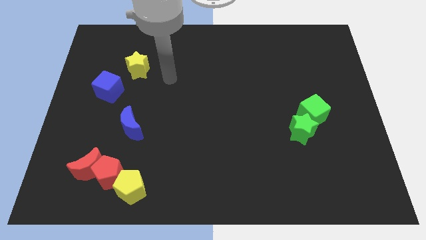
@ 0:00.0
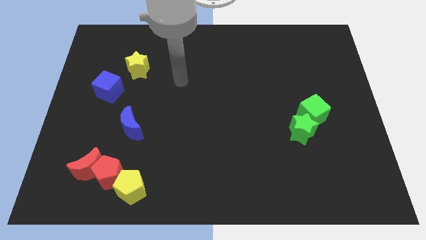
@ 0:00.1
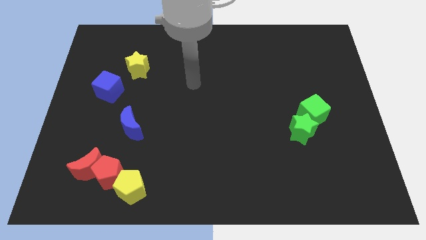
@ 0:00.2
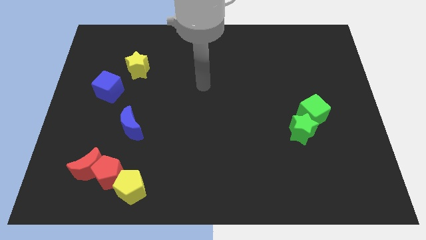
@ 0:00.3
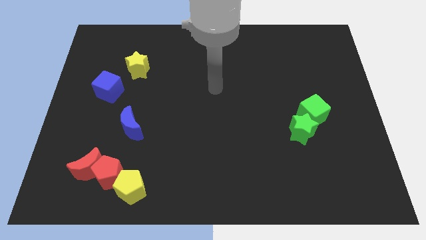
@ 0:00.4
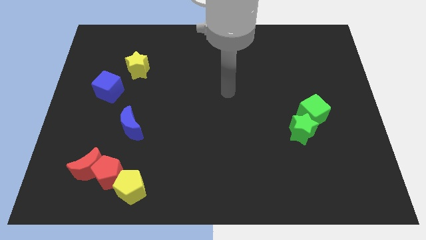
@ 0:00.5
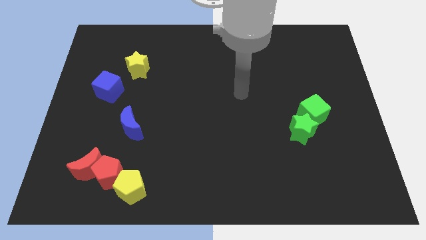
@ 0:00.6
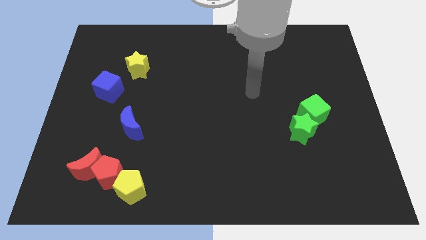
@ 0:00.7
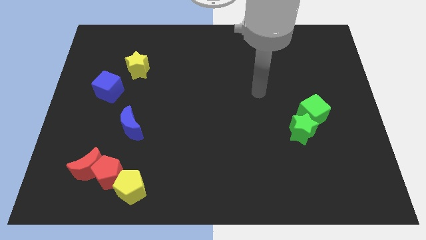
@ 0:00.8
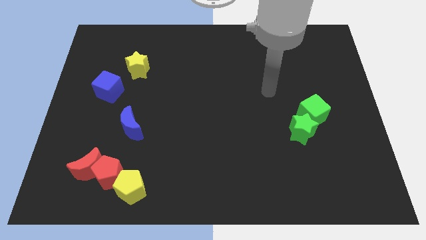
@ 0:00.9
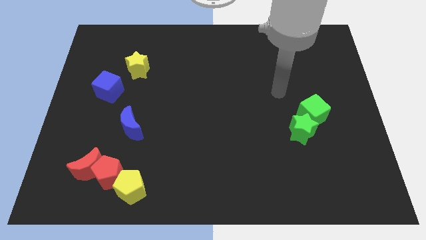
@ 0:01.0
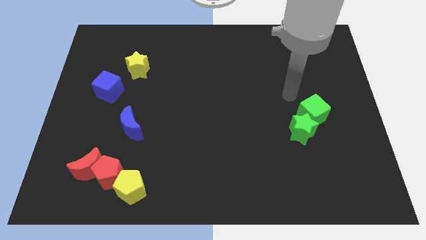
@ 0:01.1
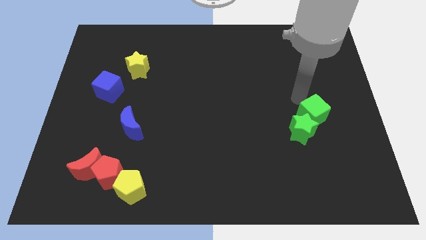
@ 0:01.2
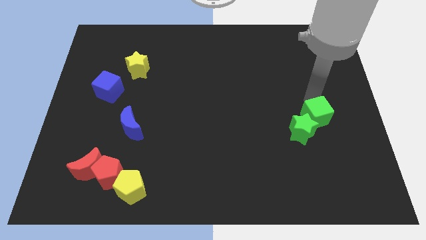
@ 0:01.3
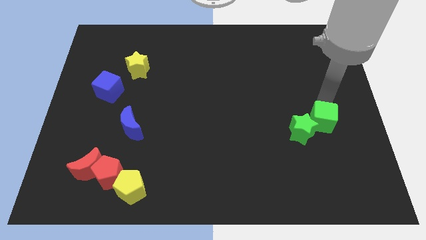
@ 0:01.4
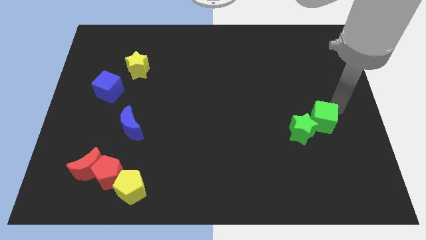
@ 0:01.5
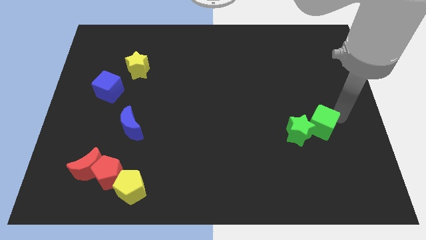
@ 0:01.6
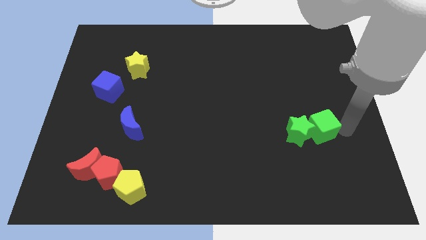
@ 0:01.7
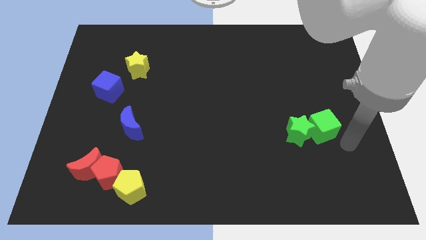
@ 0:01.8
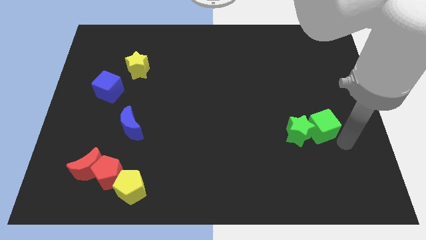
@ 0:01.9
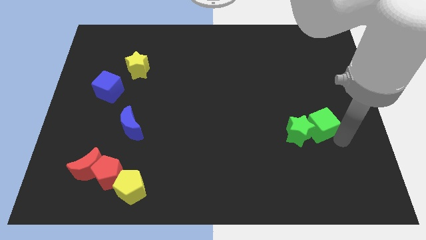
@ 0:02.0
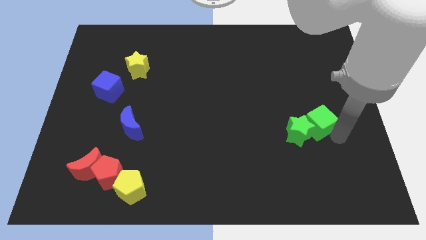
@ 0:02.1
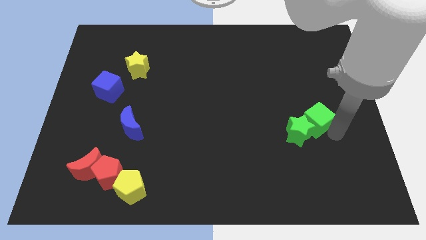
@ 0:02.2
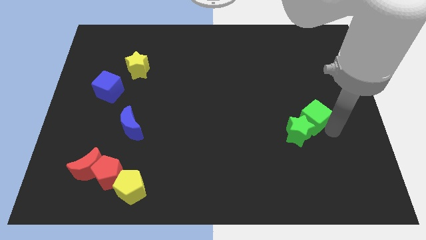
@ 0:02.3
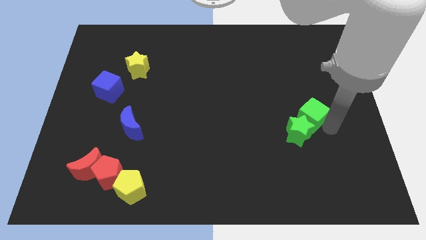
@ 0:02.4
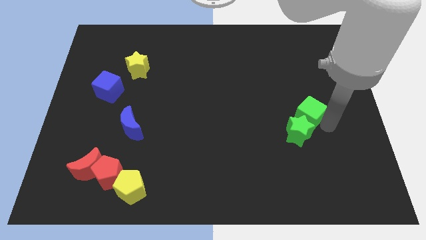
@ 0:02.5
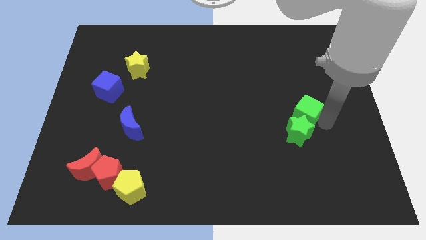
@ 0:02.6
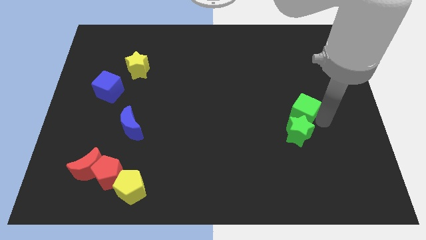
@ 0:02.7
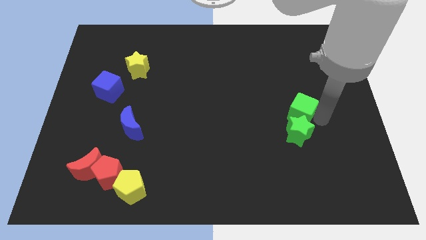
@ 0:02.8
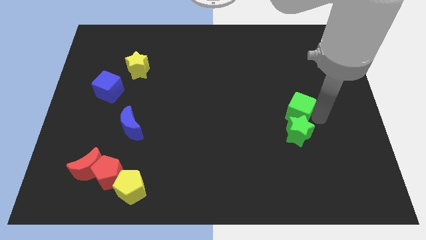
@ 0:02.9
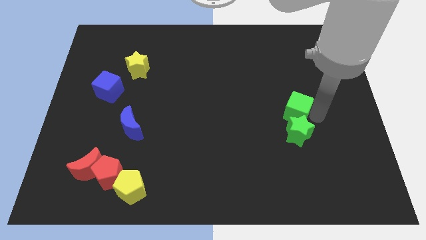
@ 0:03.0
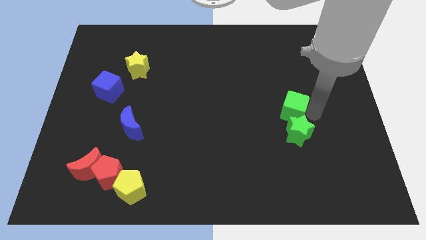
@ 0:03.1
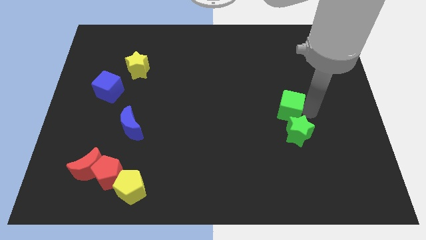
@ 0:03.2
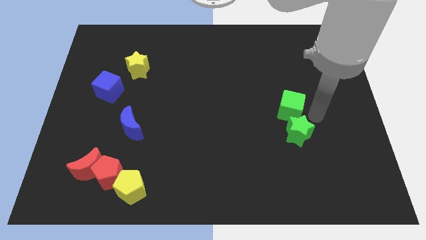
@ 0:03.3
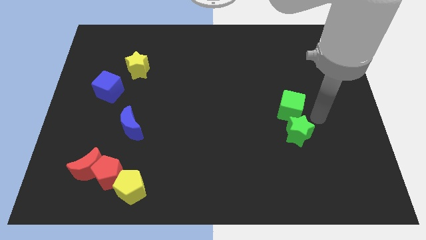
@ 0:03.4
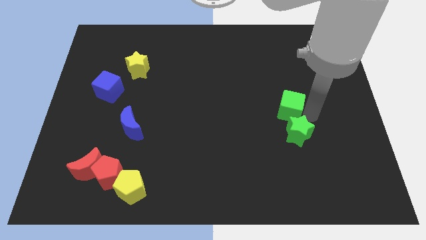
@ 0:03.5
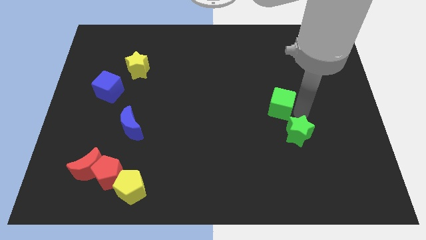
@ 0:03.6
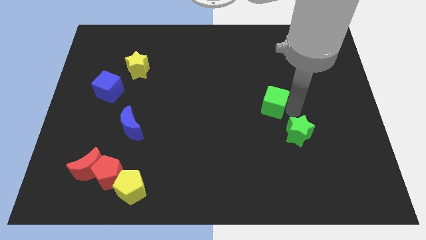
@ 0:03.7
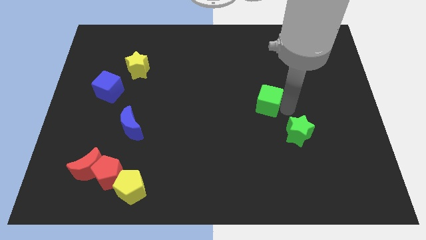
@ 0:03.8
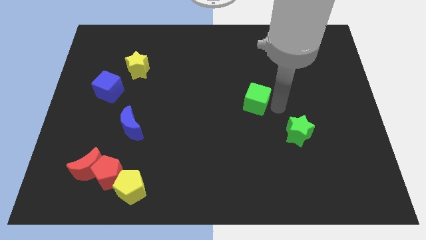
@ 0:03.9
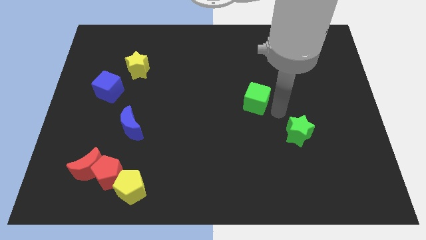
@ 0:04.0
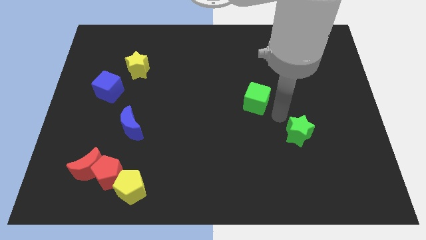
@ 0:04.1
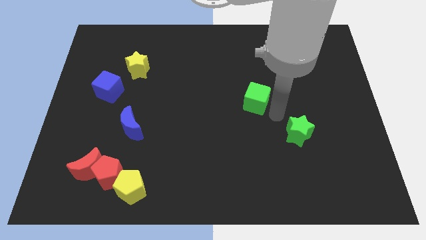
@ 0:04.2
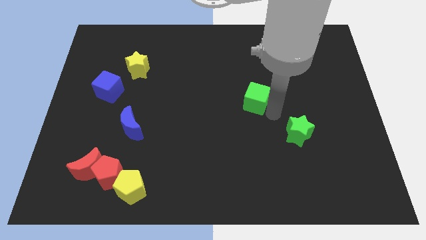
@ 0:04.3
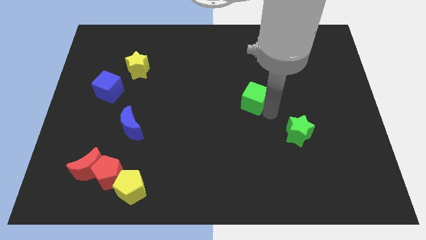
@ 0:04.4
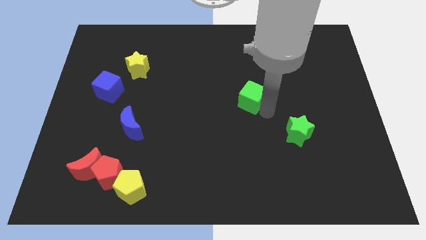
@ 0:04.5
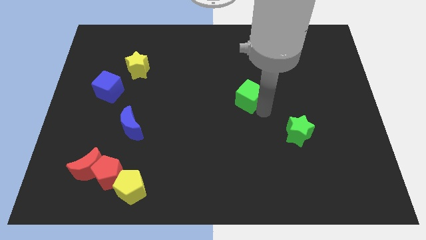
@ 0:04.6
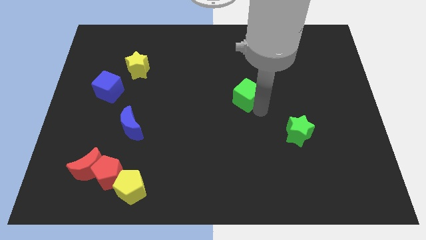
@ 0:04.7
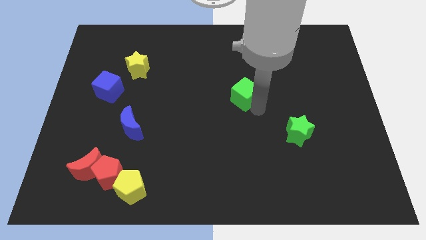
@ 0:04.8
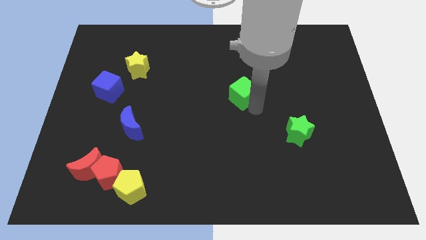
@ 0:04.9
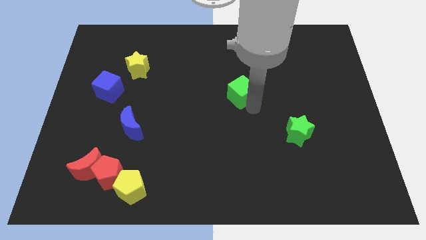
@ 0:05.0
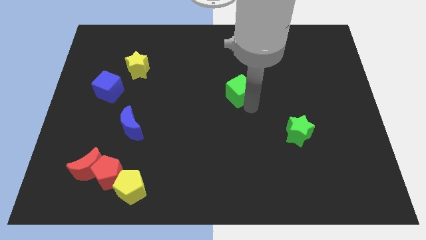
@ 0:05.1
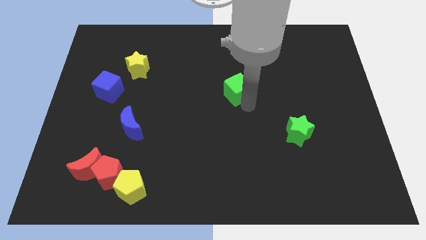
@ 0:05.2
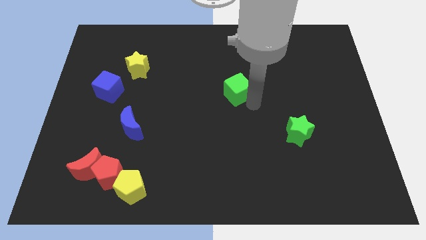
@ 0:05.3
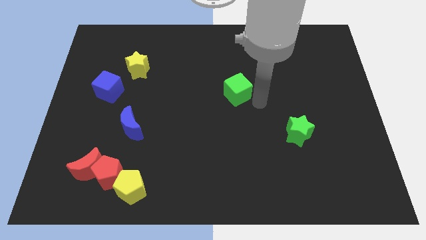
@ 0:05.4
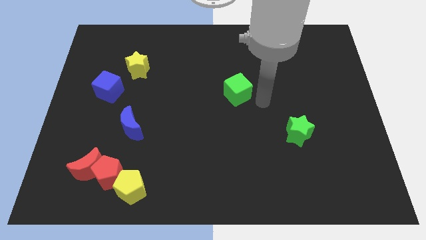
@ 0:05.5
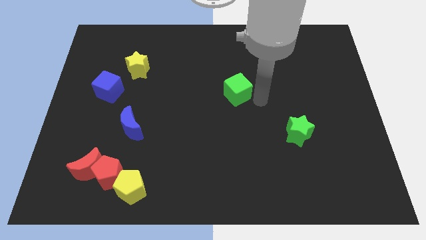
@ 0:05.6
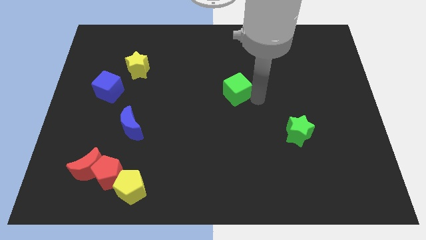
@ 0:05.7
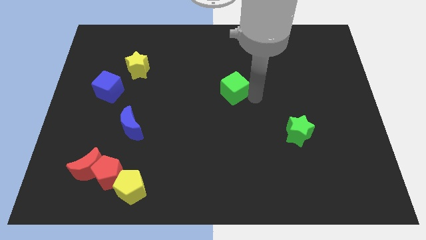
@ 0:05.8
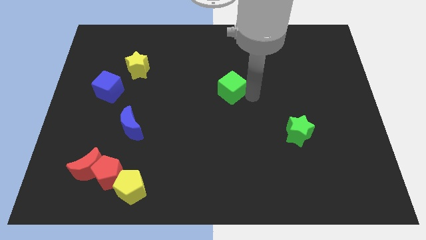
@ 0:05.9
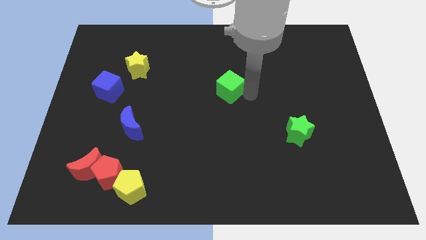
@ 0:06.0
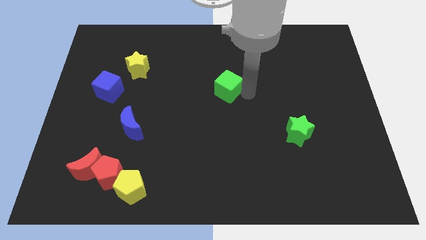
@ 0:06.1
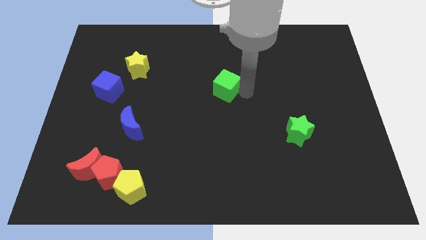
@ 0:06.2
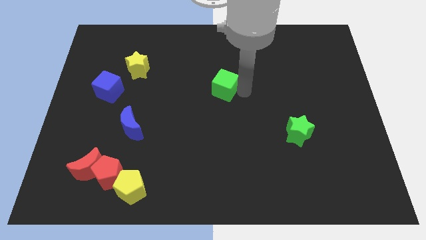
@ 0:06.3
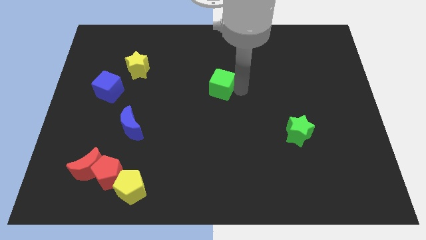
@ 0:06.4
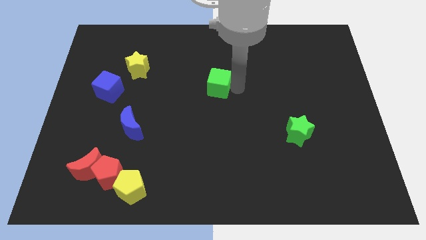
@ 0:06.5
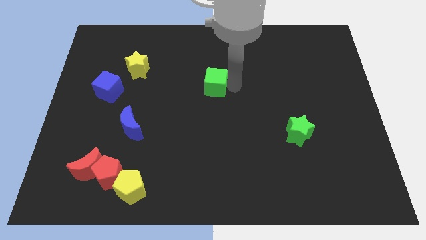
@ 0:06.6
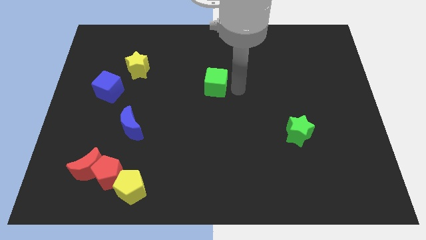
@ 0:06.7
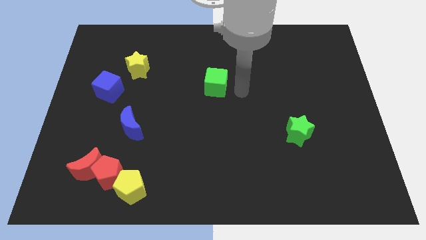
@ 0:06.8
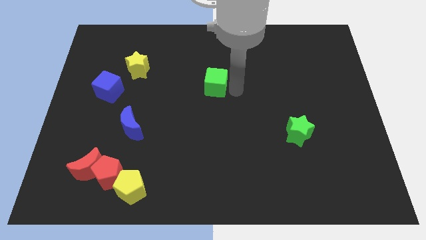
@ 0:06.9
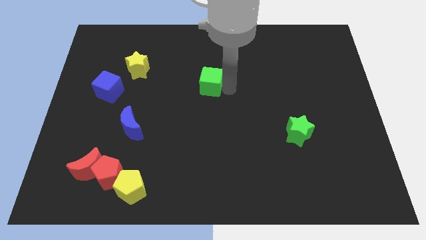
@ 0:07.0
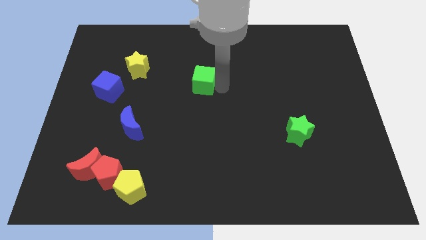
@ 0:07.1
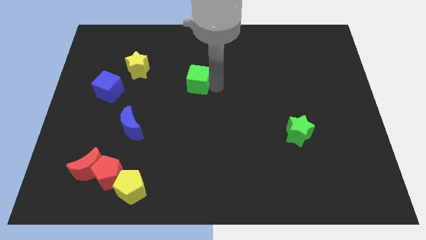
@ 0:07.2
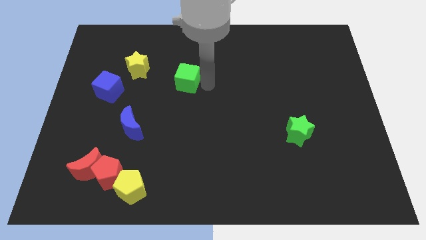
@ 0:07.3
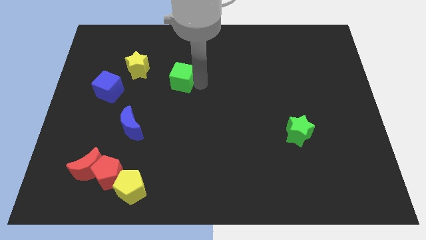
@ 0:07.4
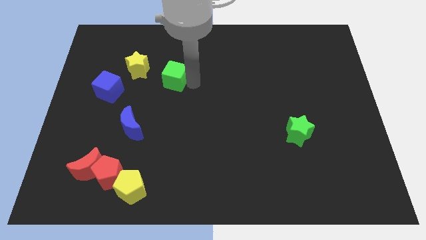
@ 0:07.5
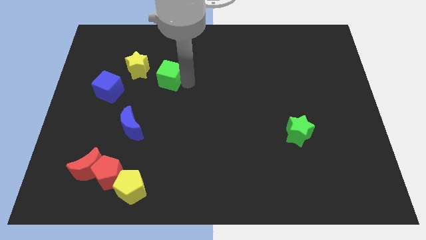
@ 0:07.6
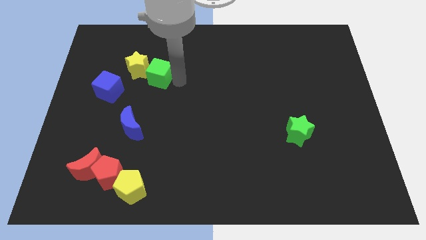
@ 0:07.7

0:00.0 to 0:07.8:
put the green cube towards the yellow star
